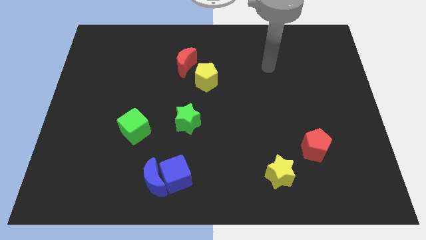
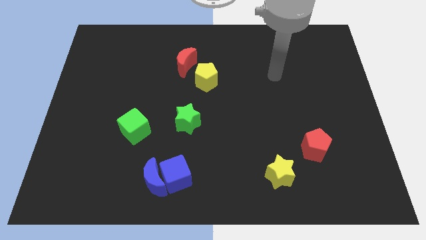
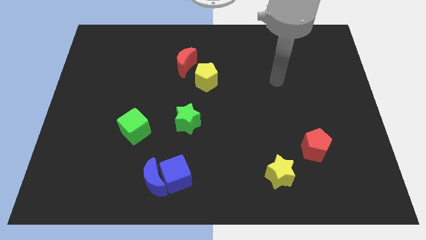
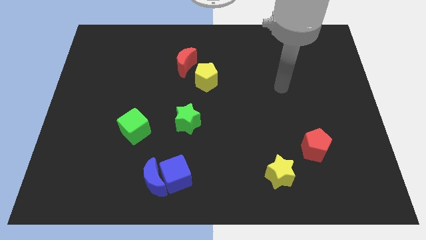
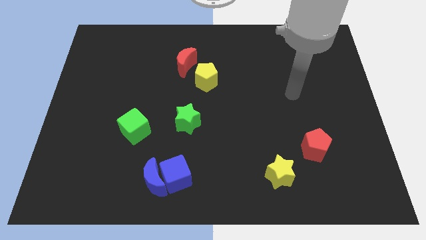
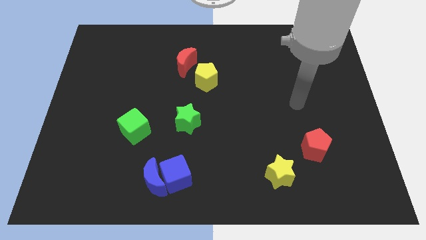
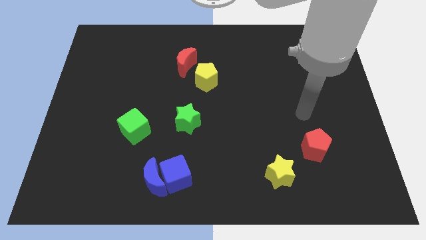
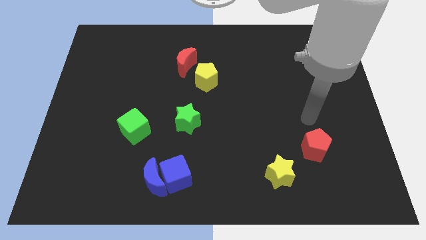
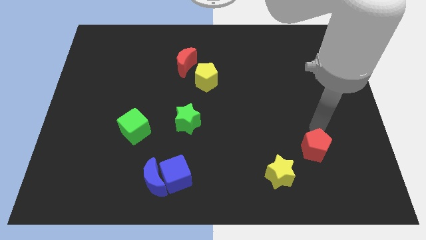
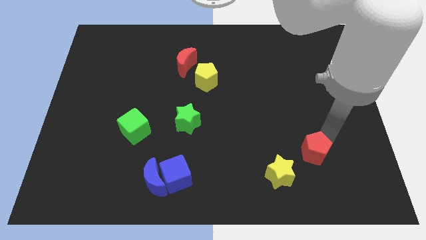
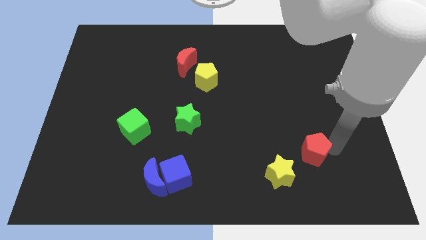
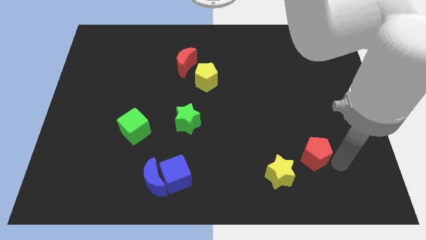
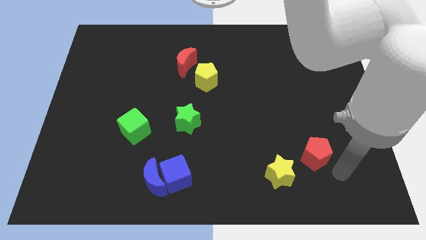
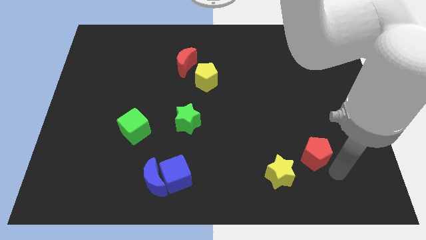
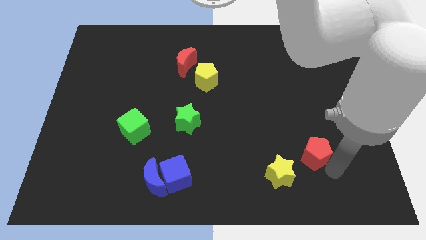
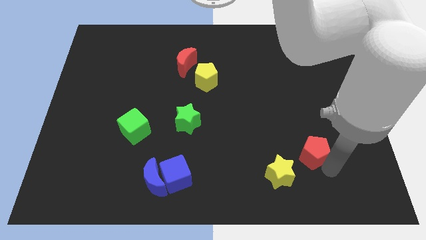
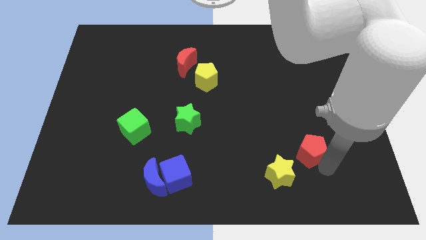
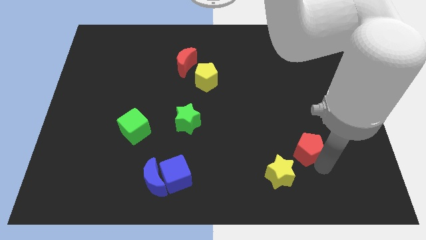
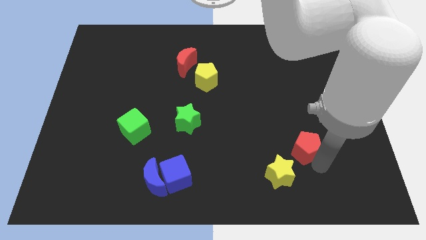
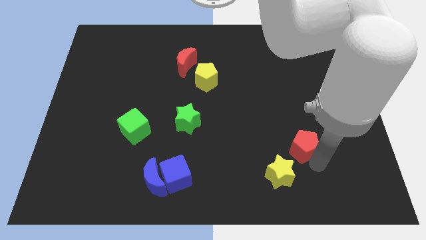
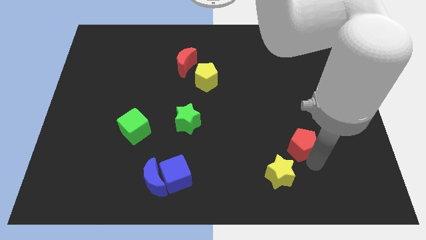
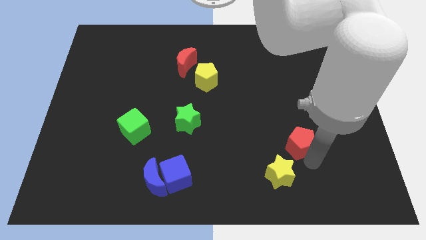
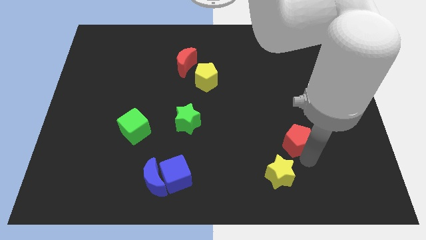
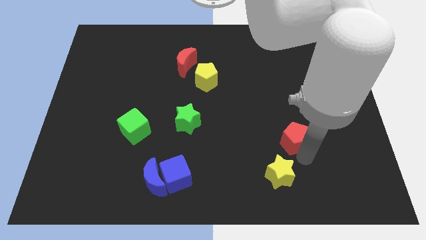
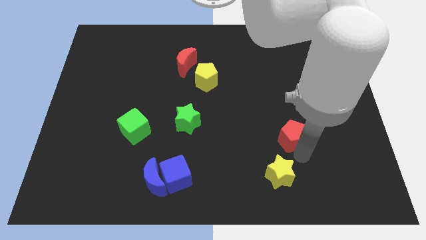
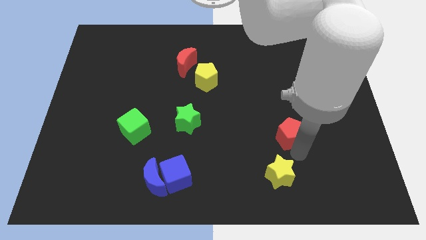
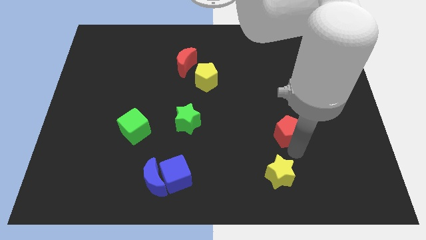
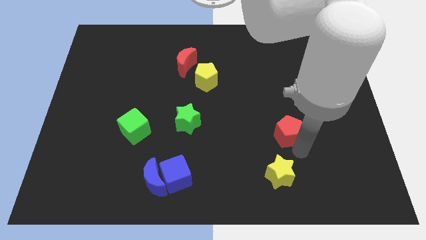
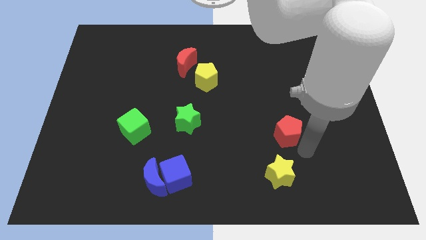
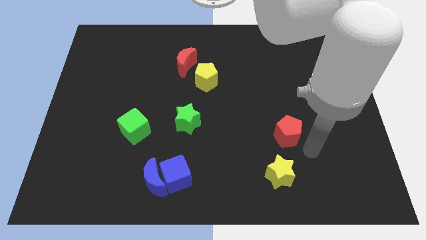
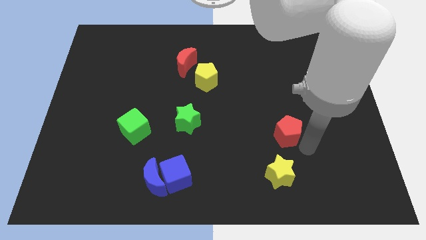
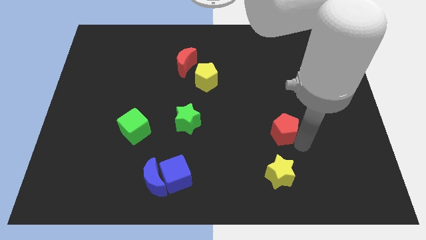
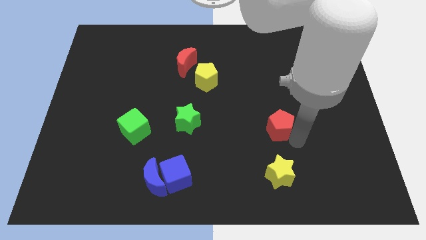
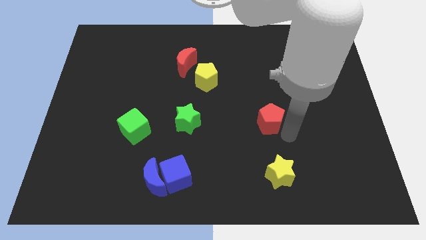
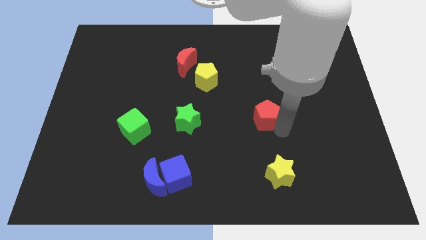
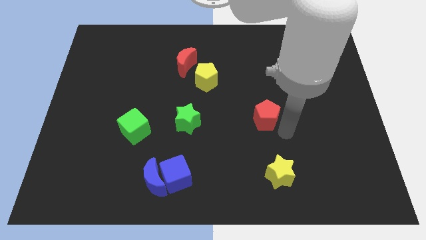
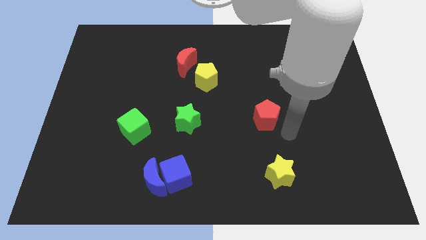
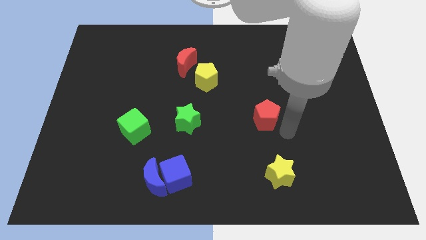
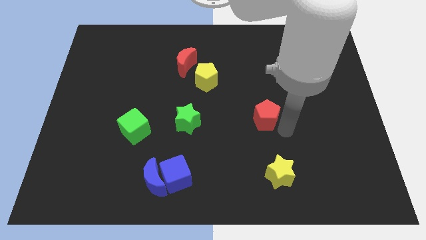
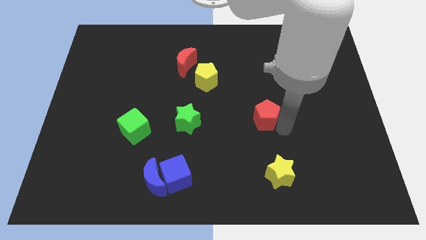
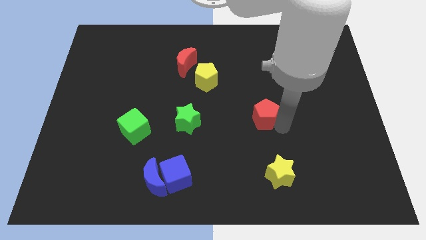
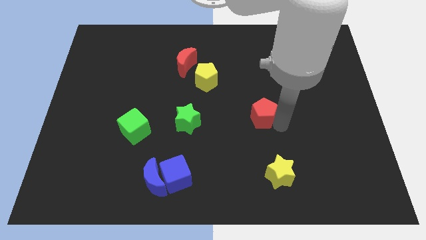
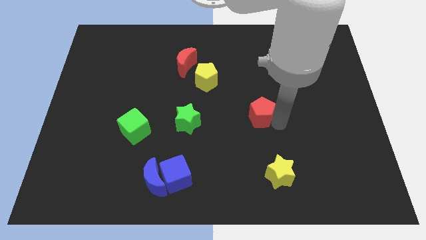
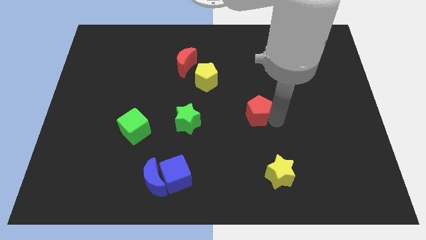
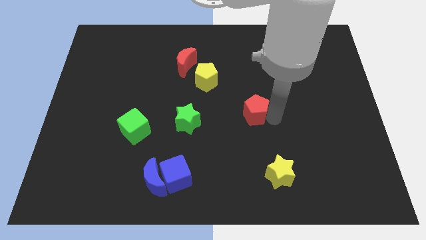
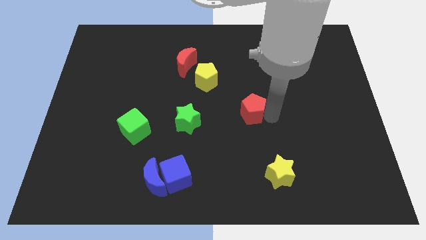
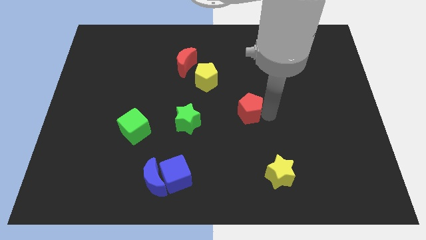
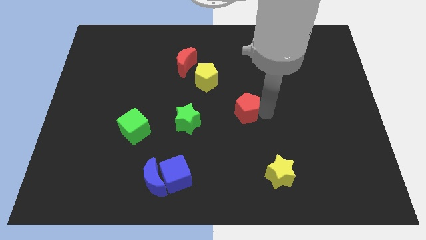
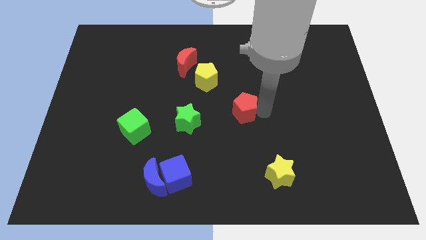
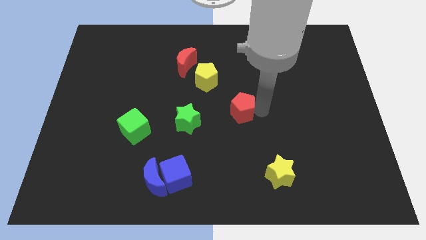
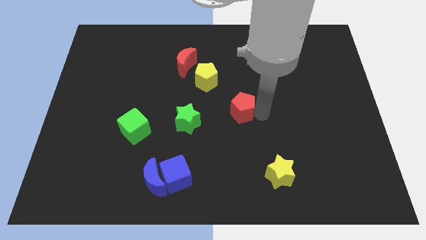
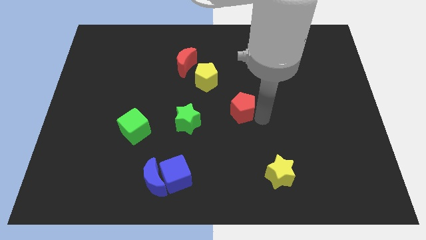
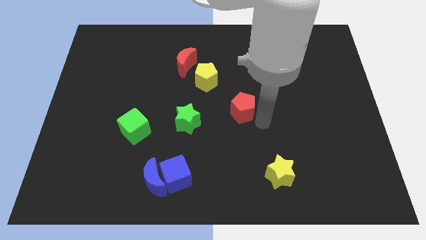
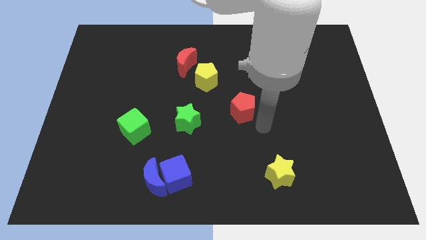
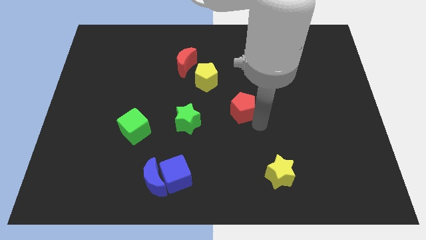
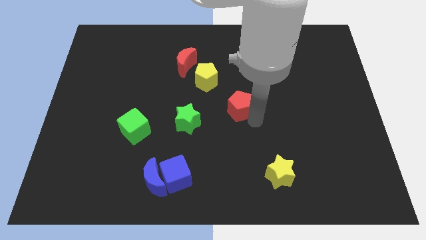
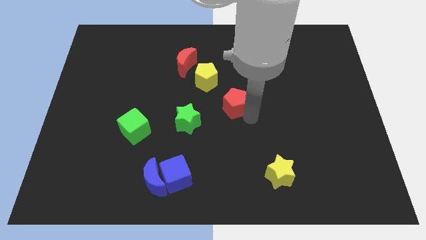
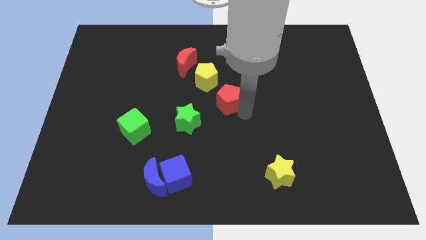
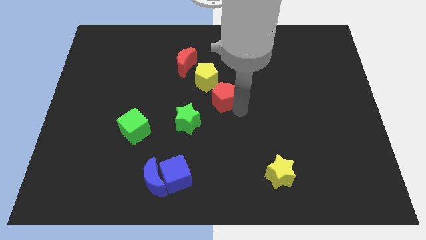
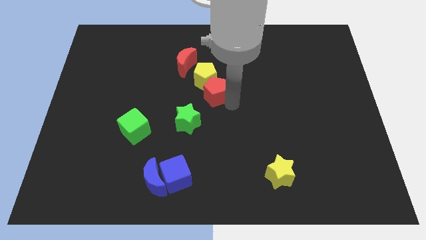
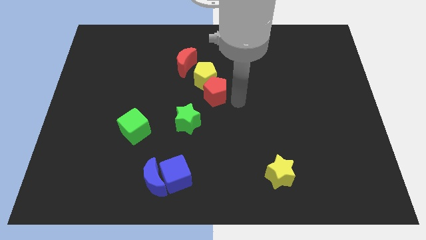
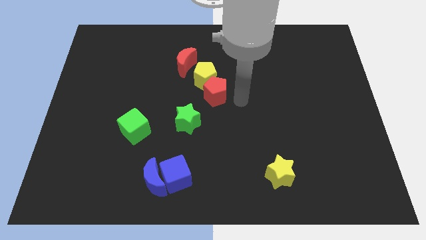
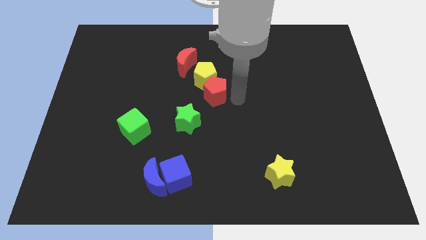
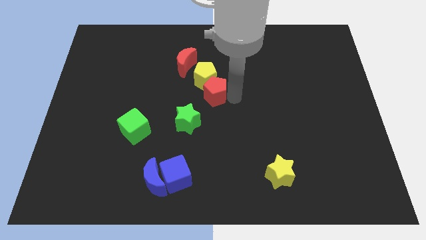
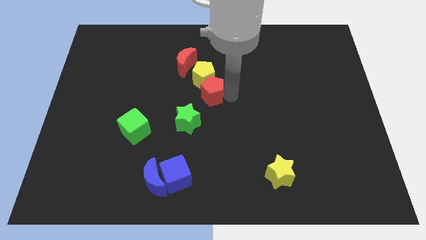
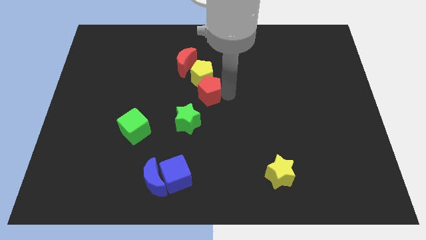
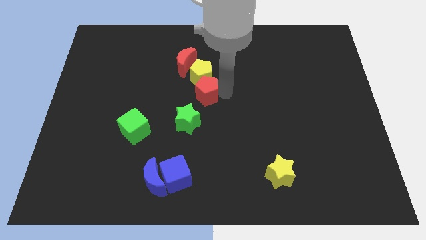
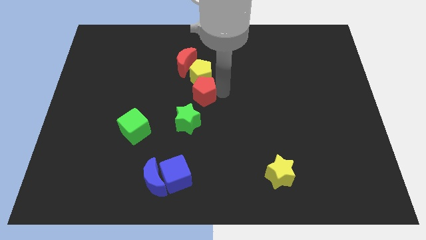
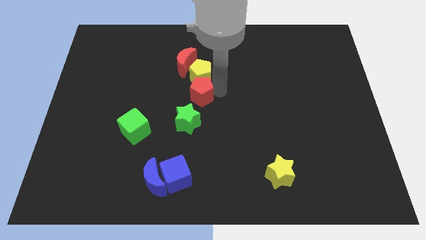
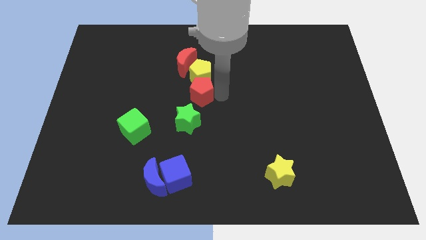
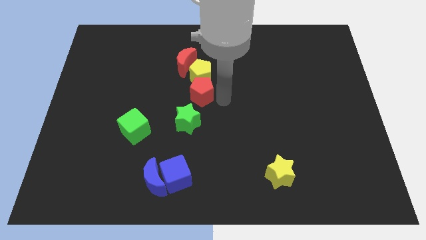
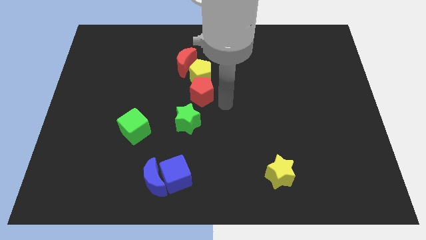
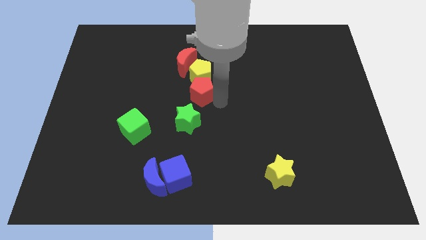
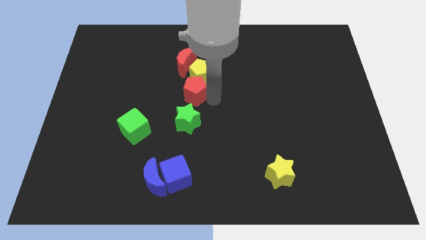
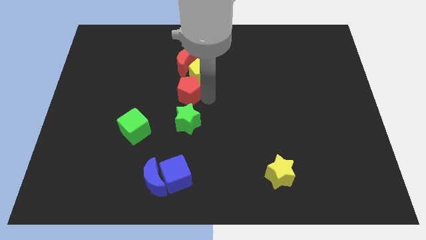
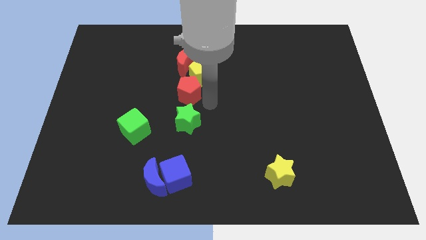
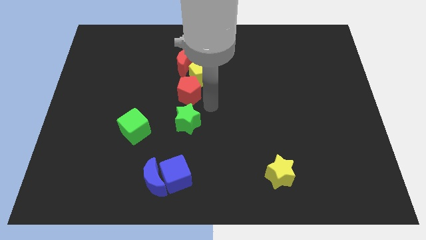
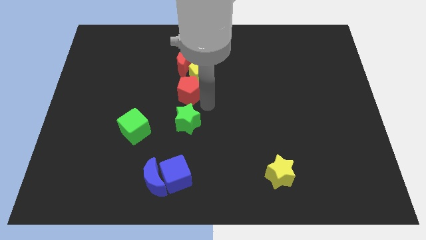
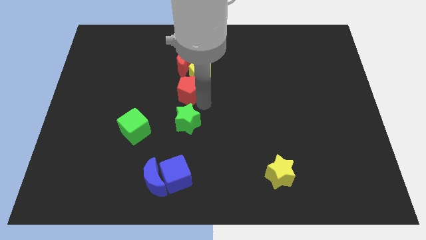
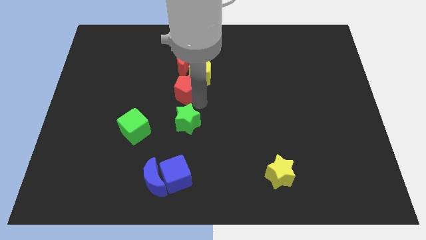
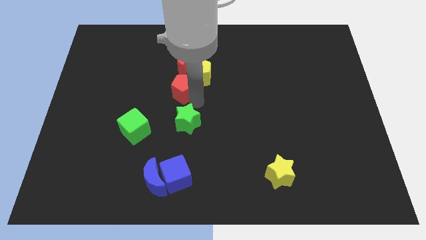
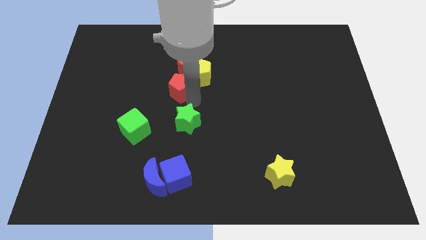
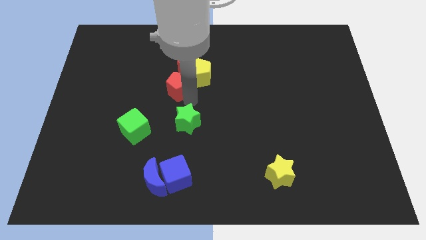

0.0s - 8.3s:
slide the red pentagon to the bottom left side of the red moon
